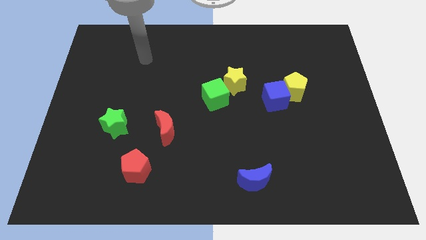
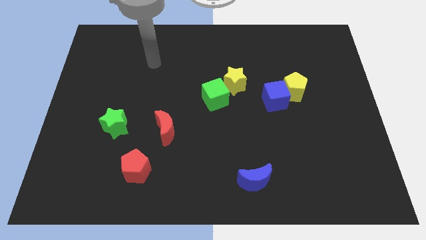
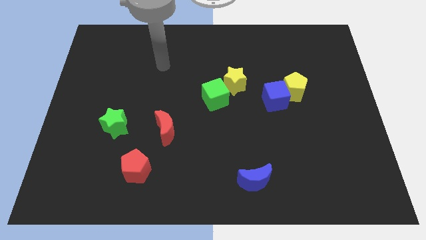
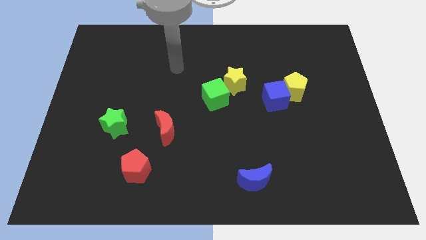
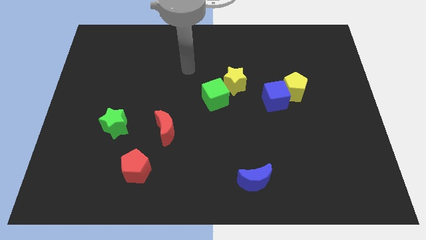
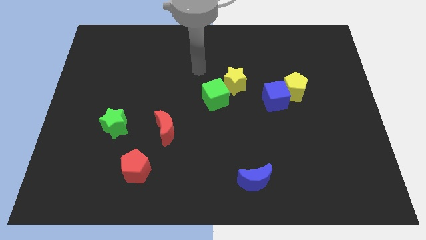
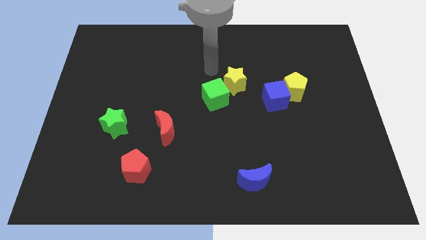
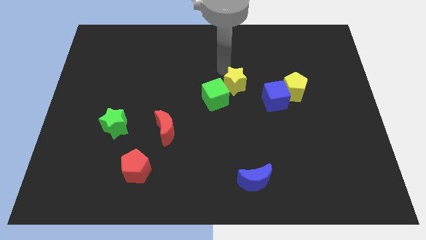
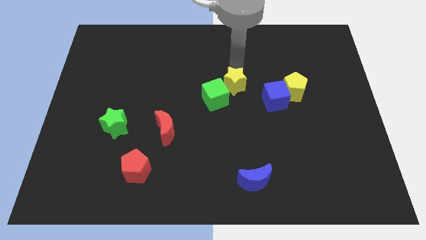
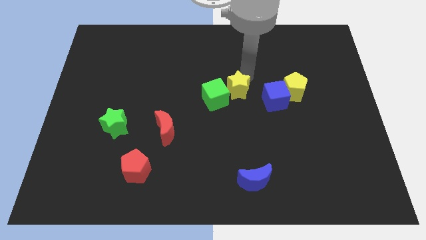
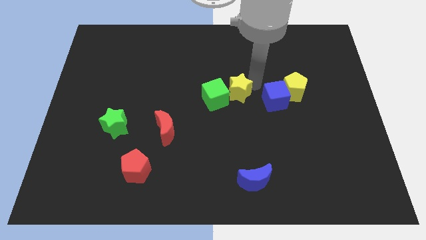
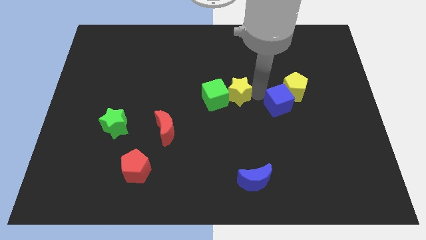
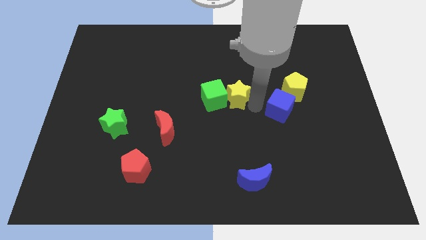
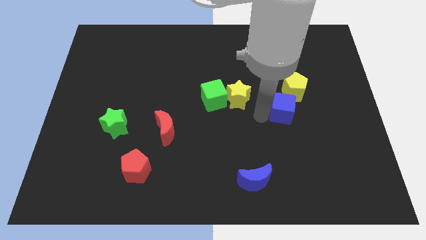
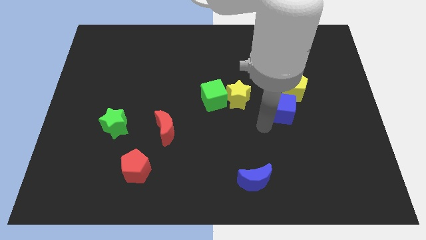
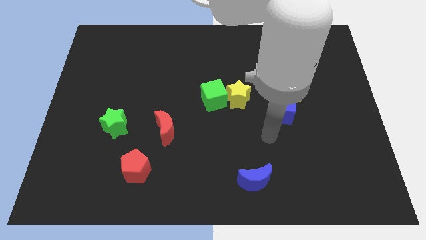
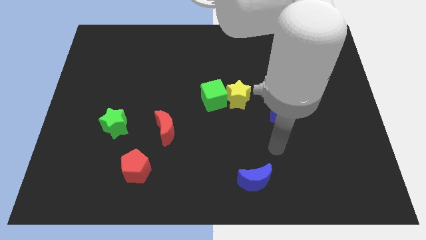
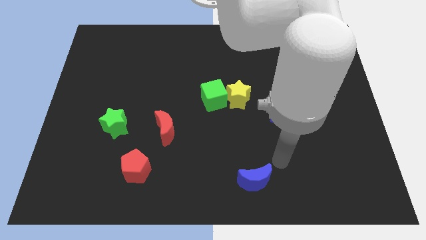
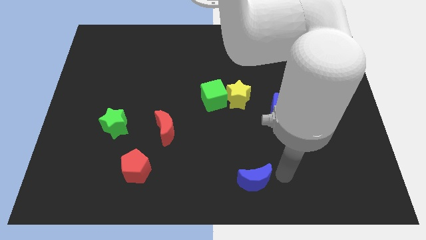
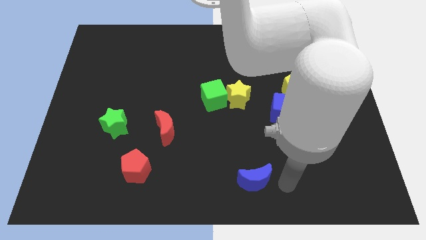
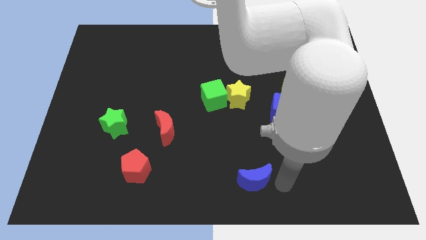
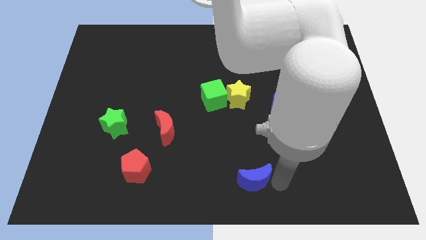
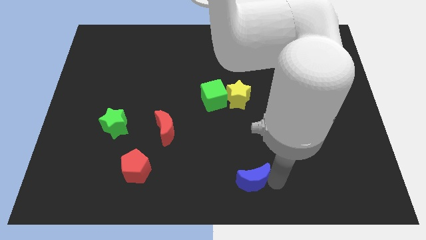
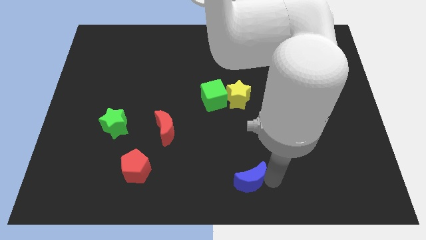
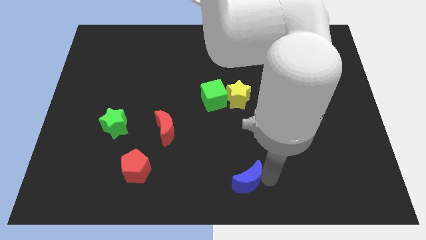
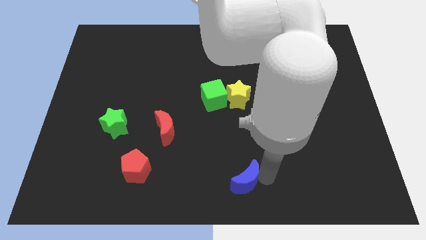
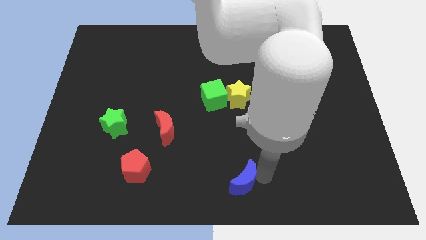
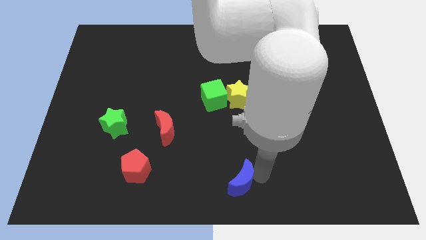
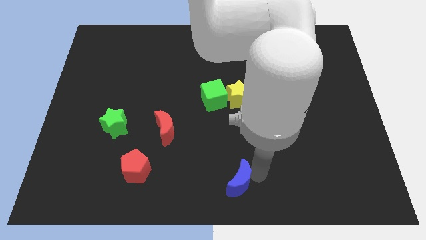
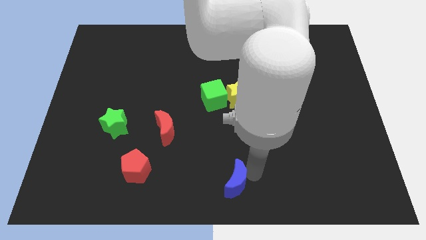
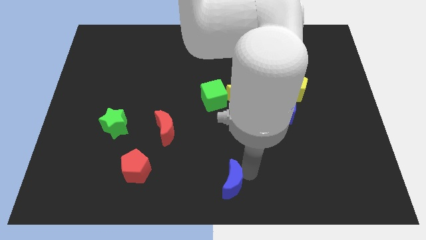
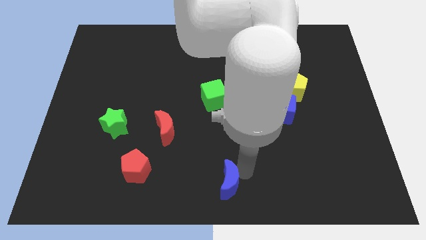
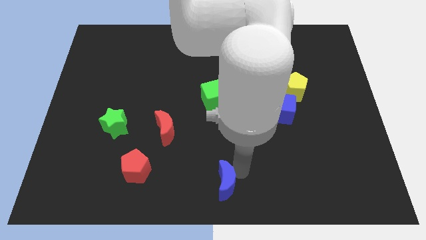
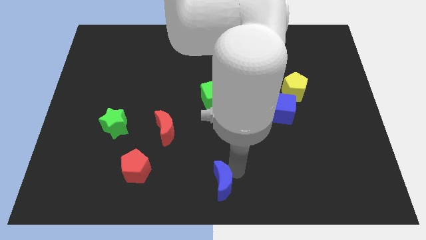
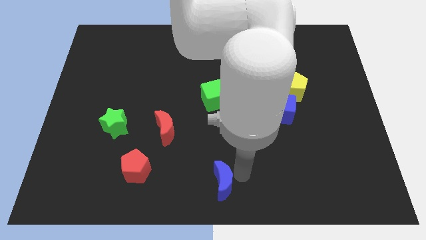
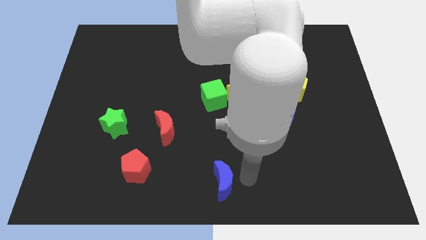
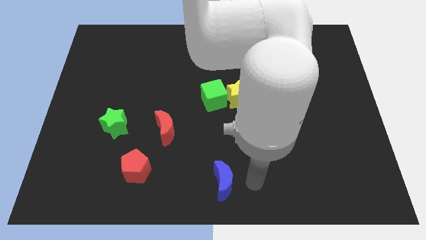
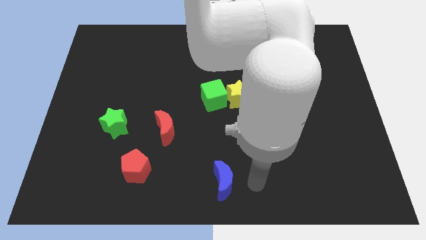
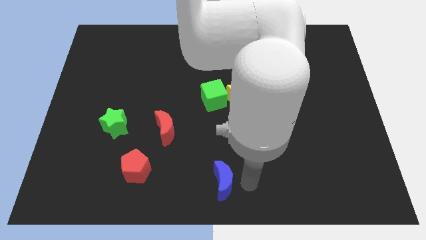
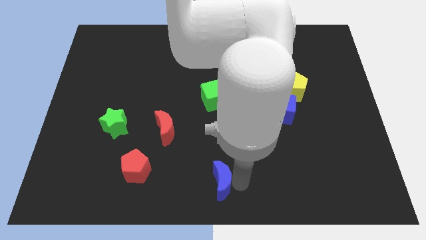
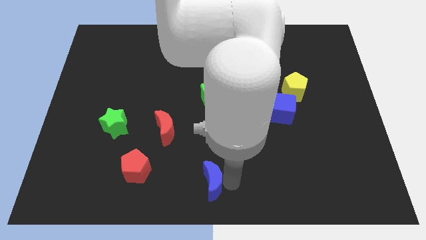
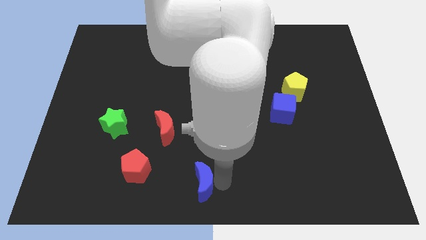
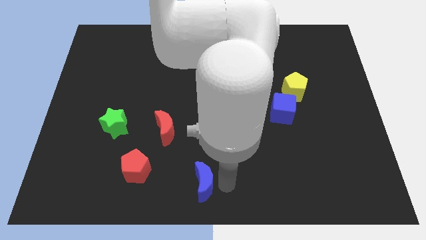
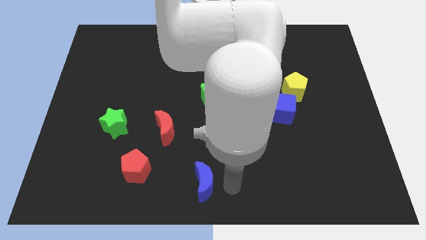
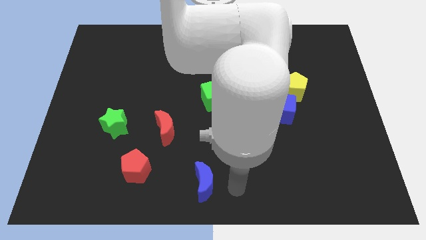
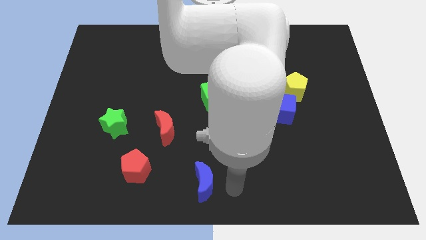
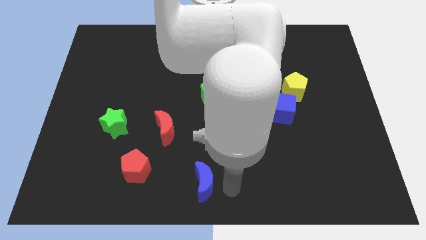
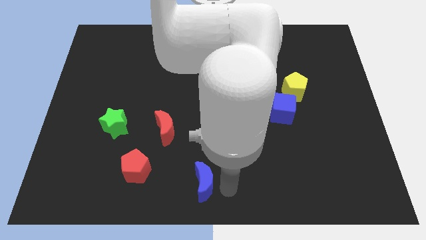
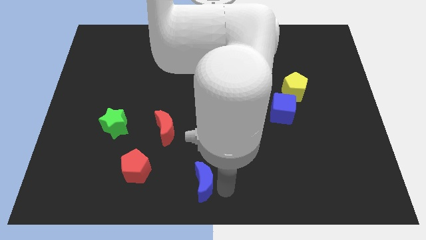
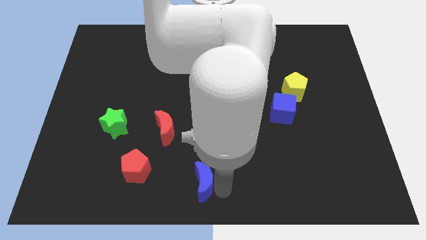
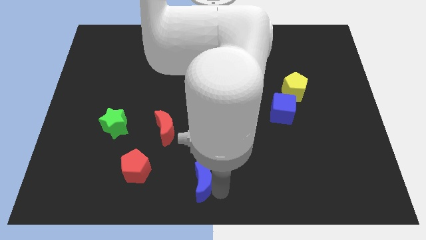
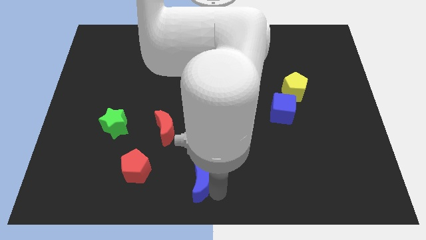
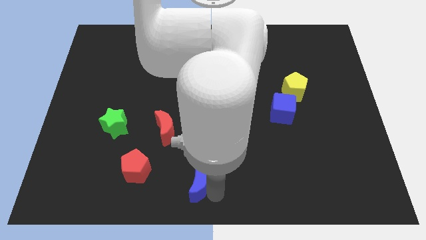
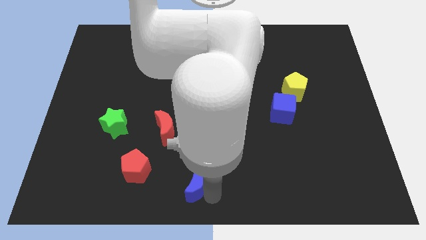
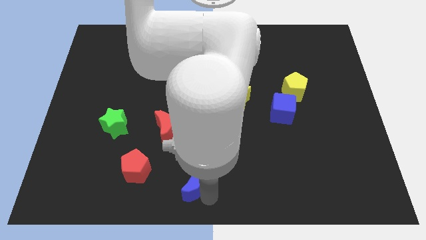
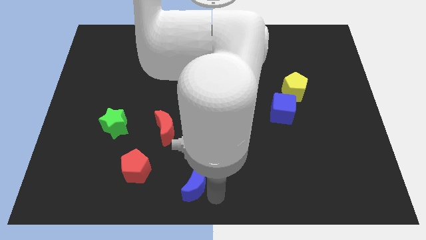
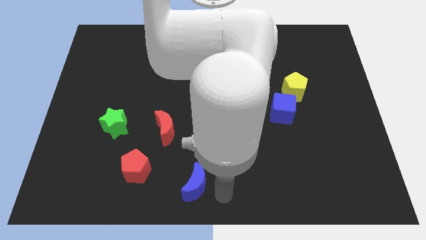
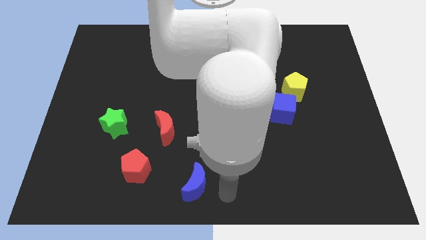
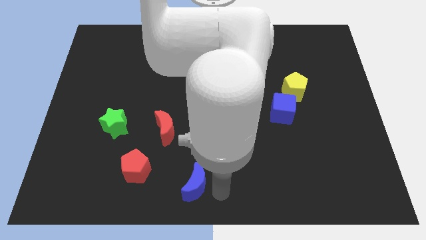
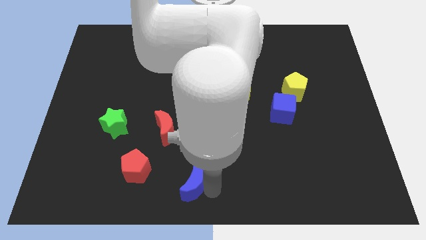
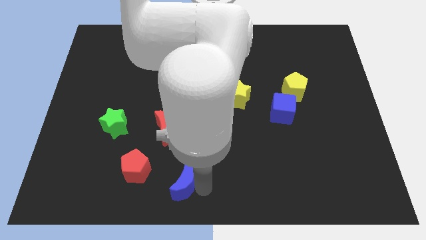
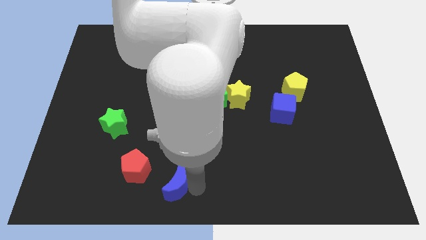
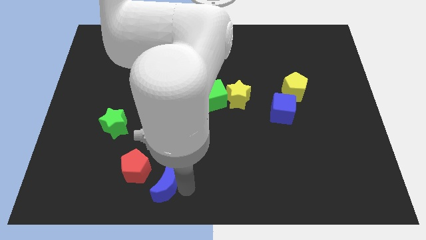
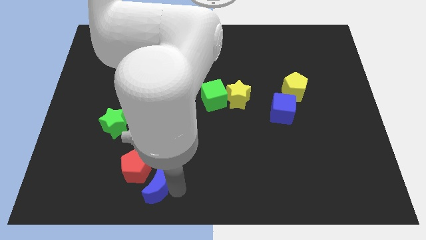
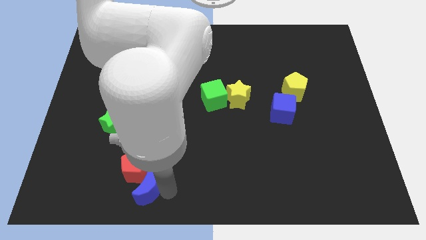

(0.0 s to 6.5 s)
slide the blue moon to the red pentagon

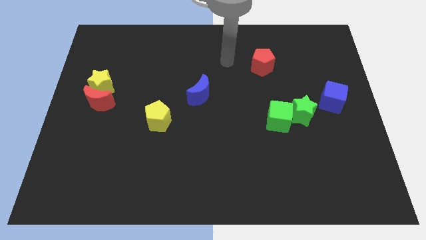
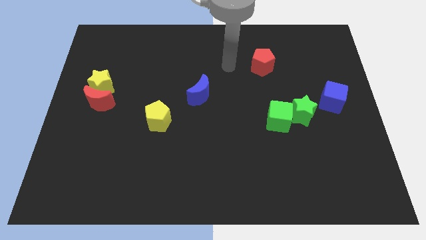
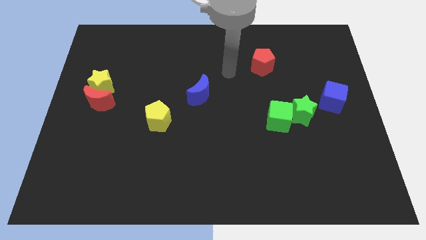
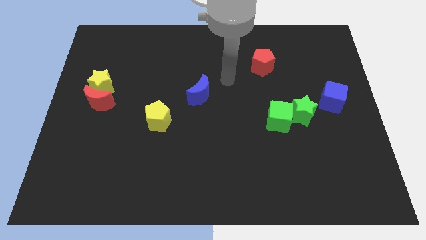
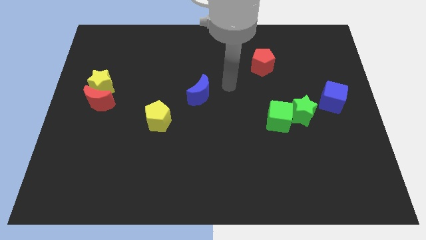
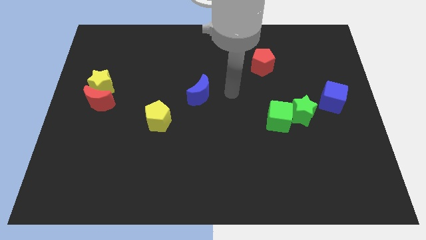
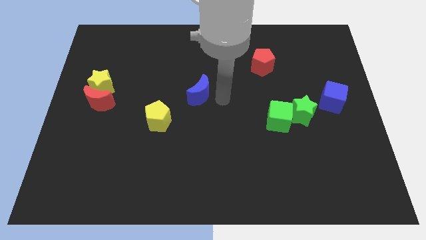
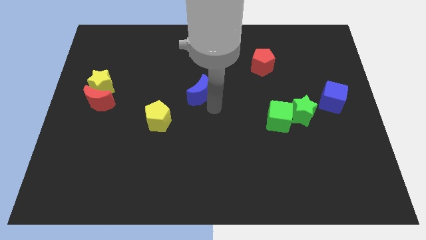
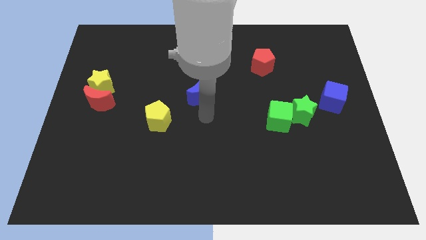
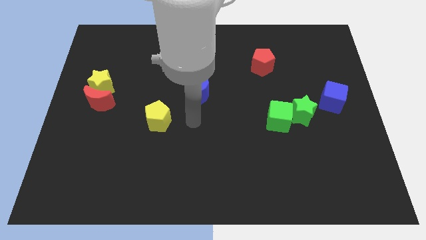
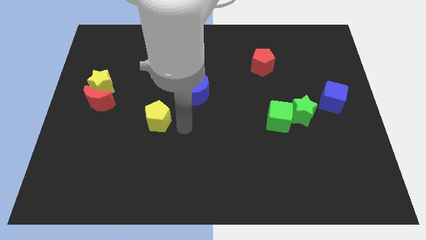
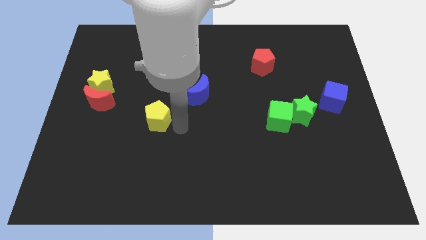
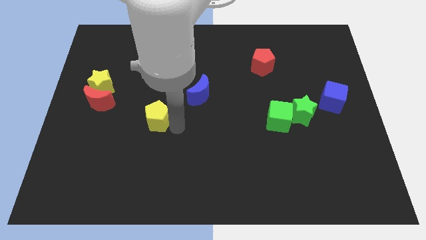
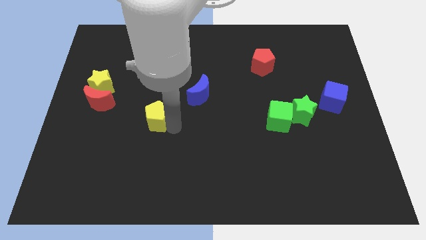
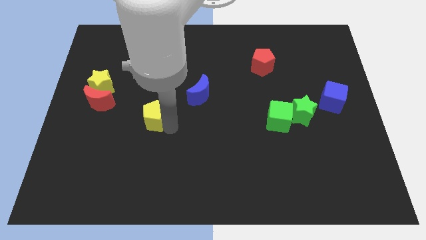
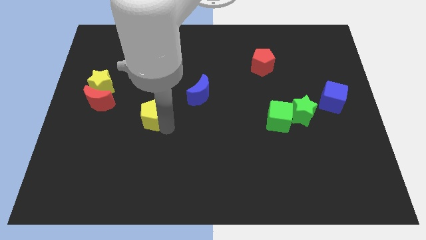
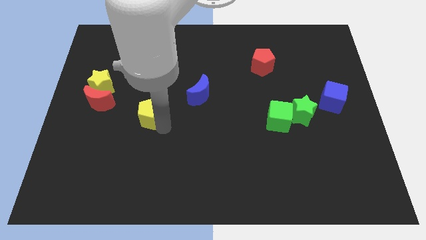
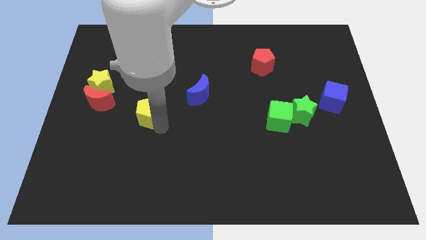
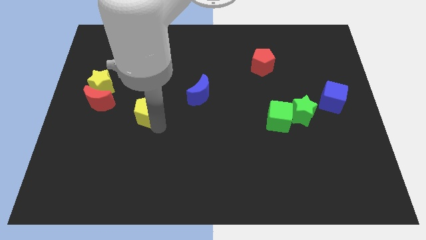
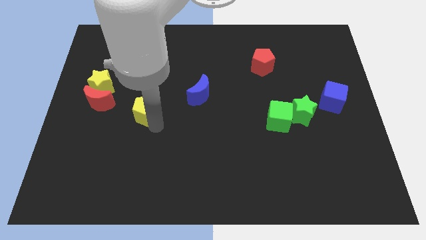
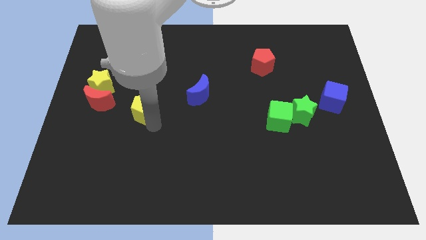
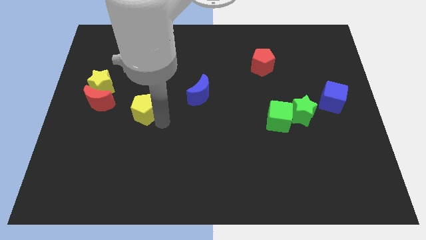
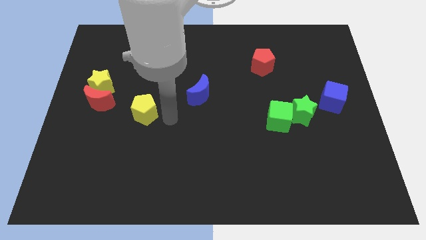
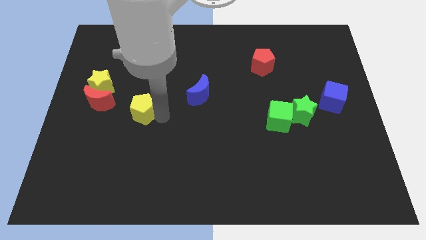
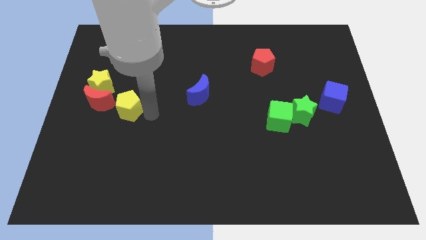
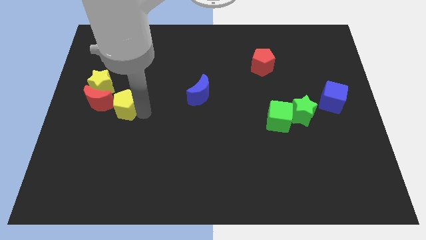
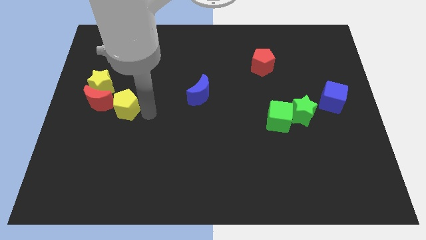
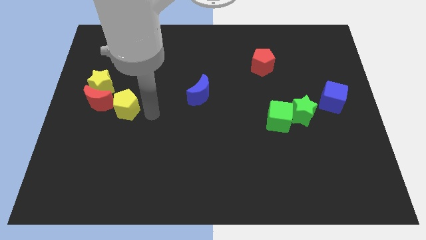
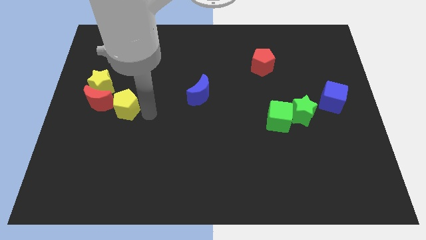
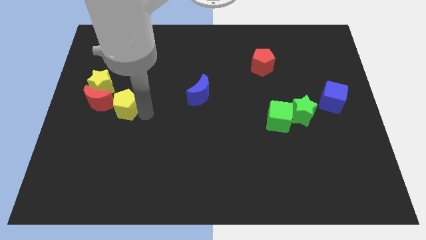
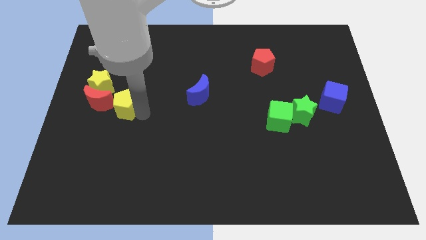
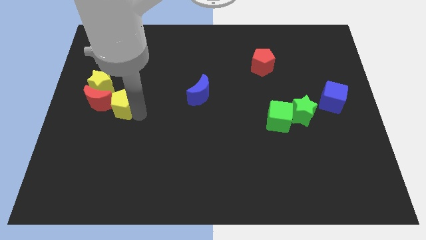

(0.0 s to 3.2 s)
move the yellow pentagon to the red moon
